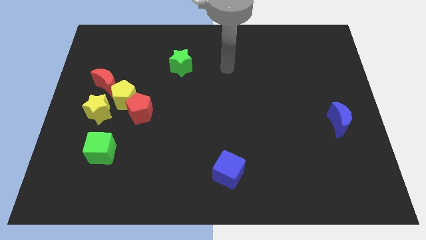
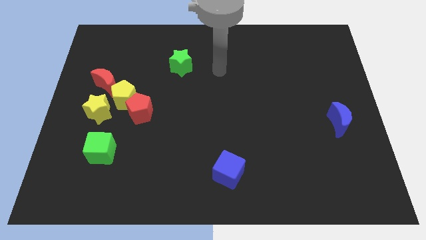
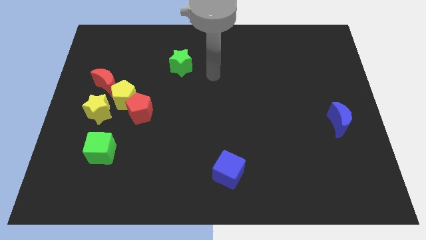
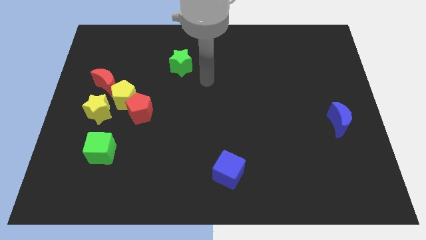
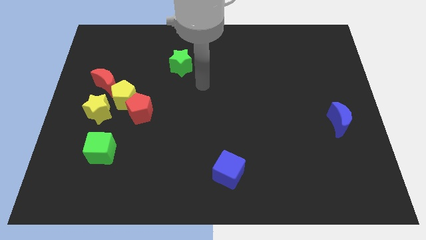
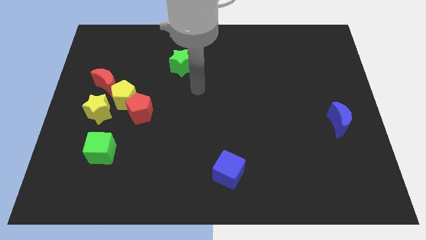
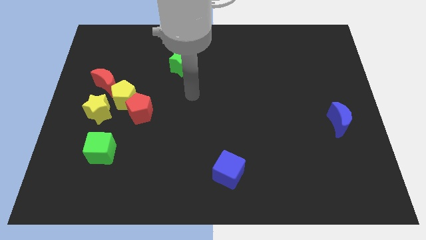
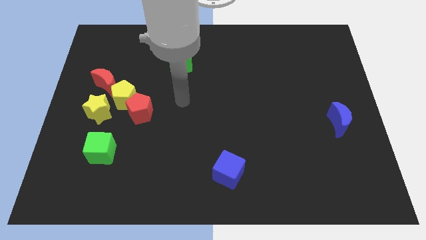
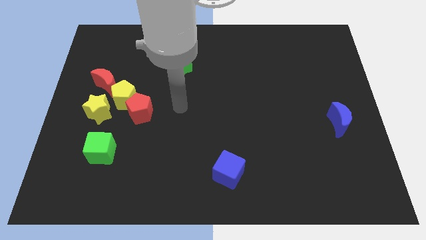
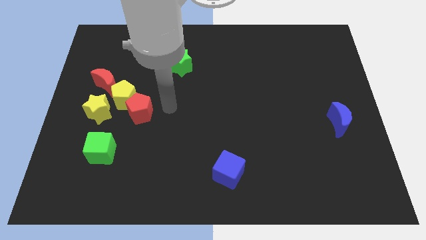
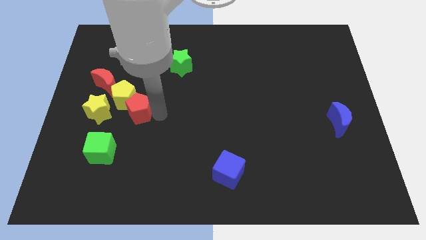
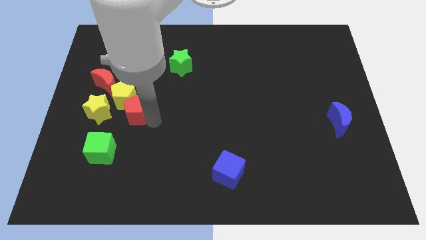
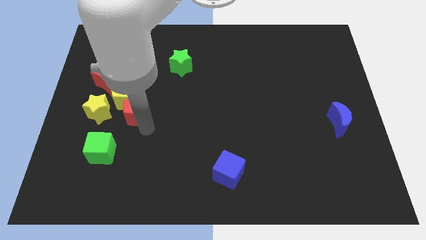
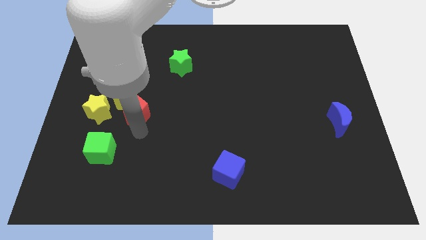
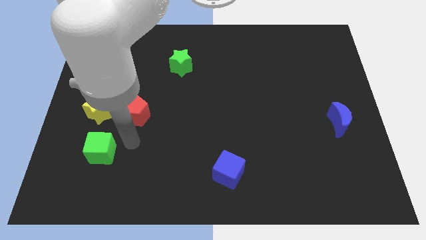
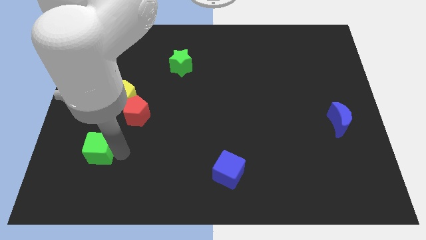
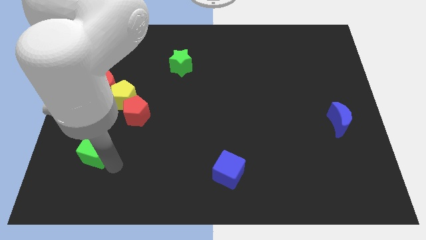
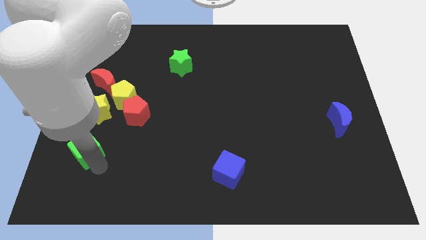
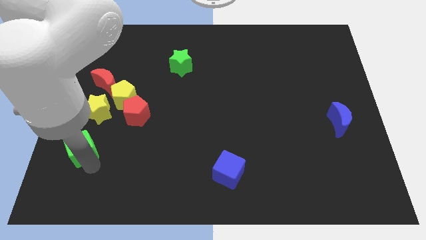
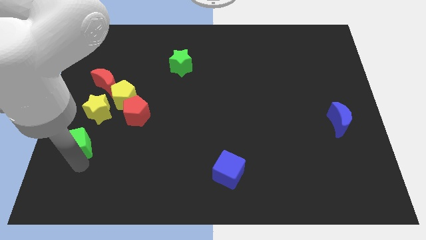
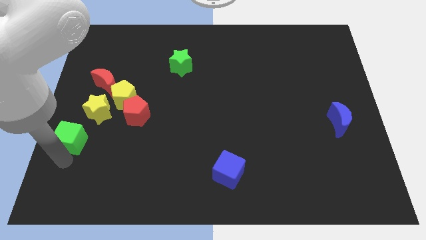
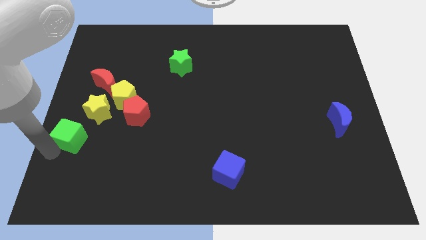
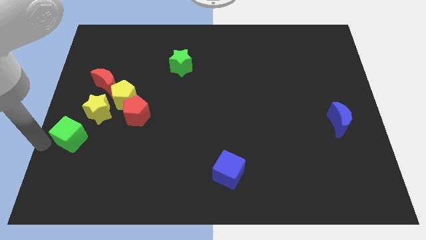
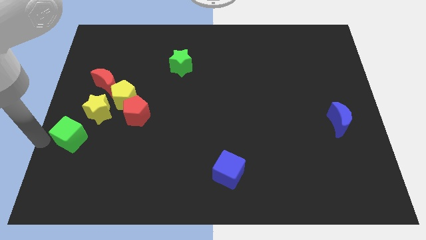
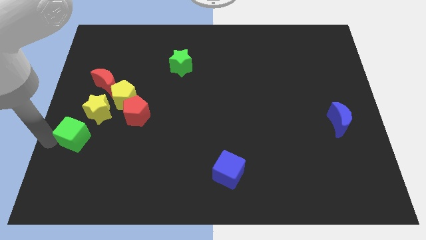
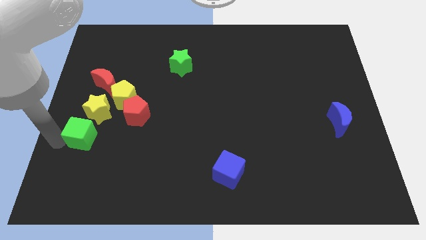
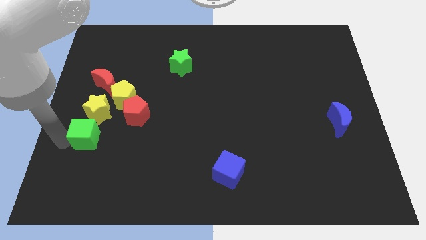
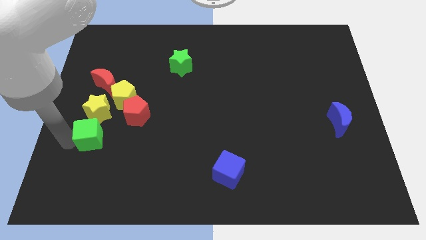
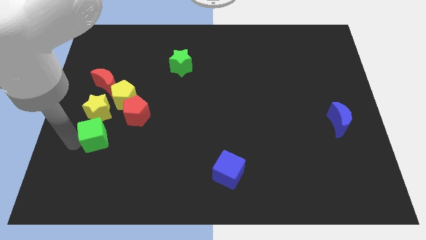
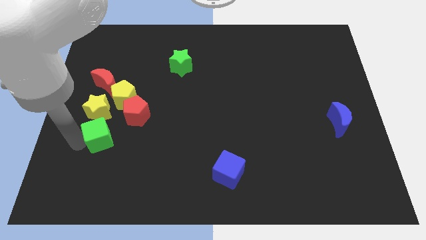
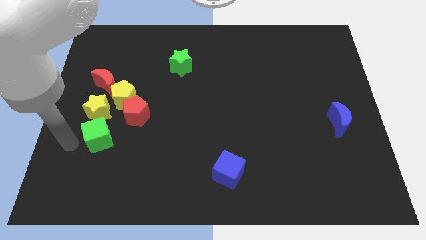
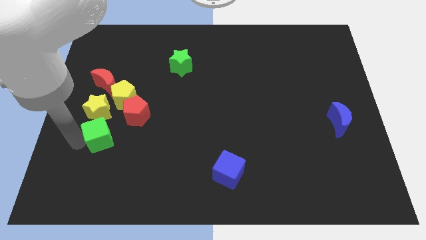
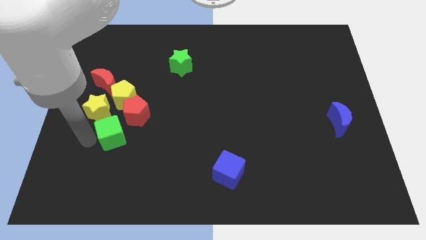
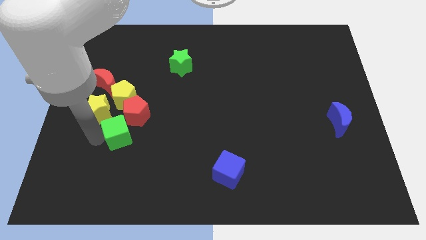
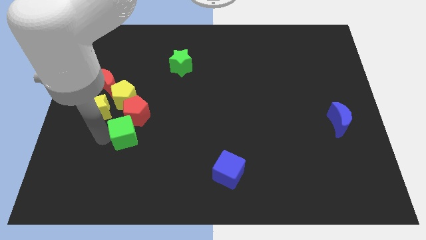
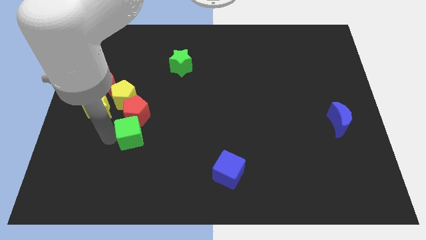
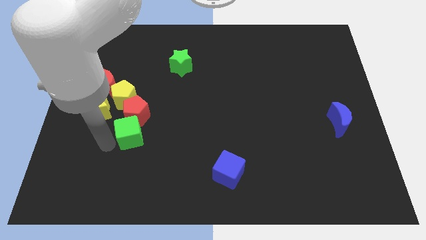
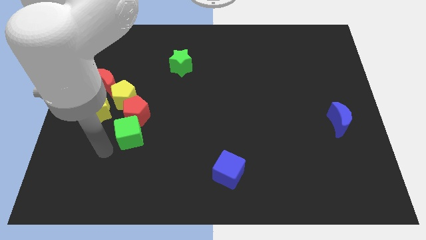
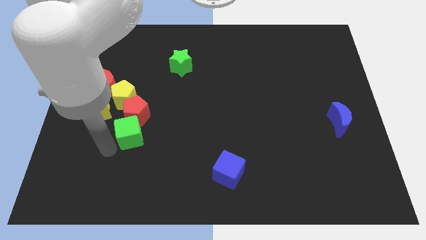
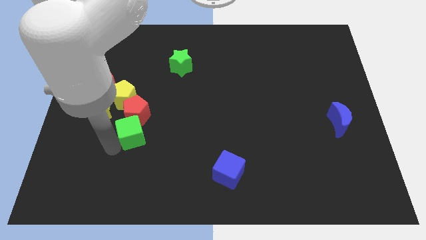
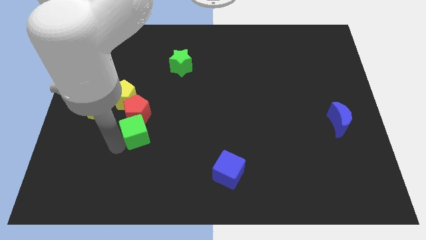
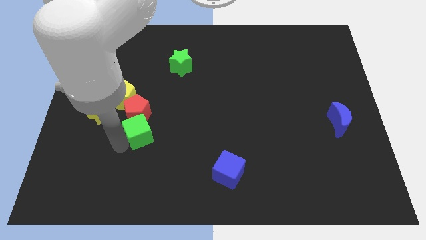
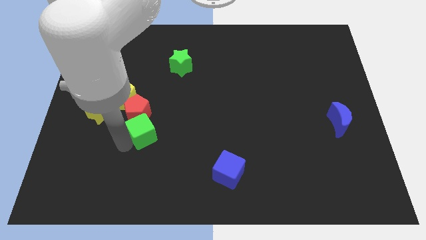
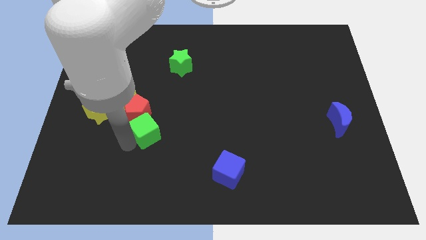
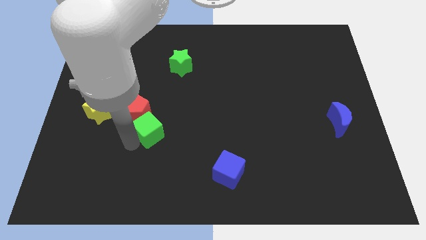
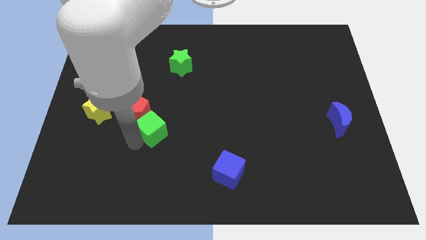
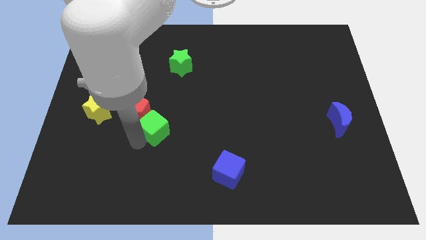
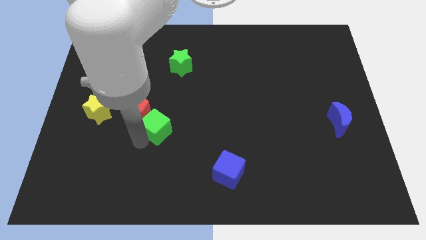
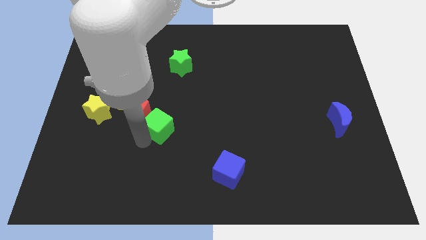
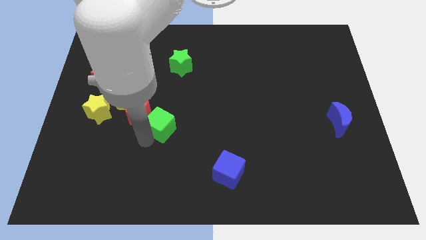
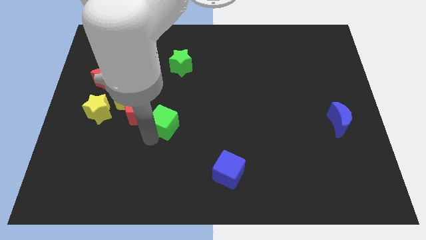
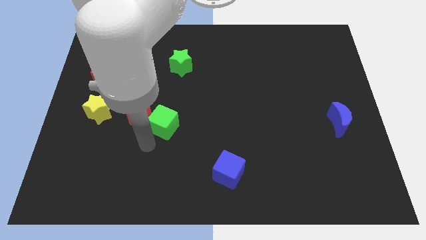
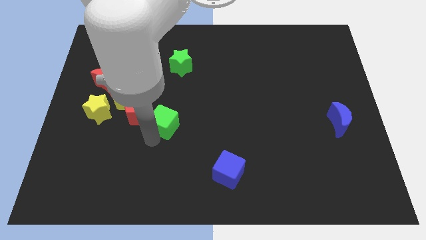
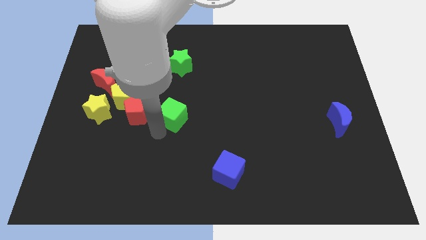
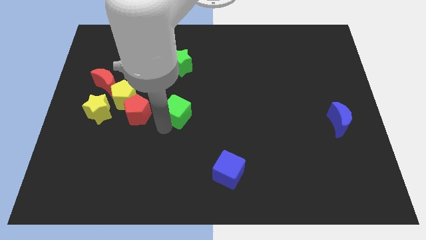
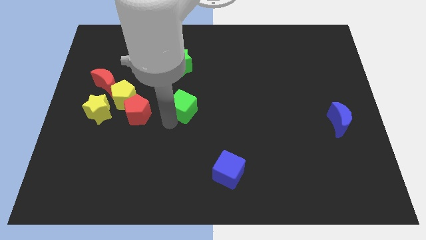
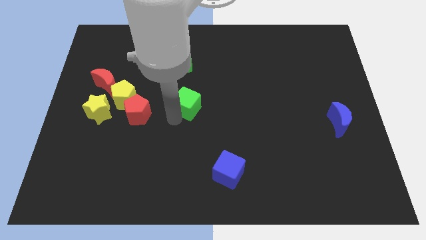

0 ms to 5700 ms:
move the green cube upwards and to the right

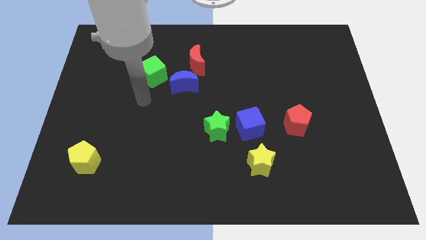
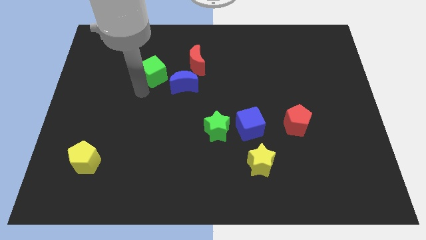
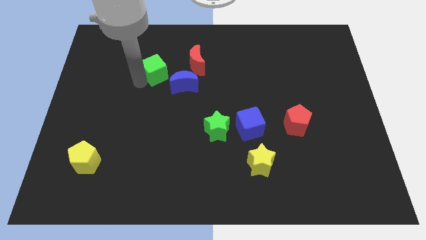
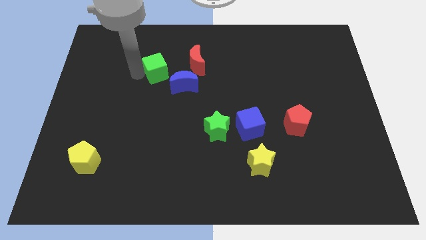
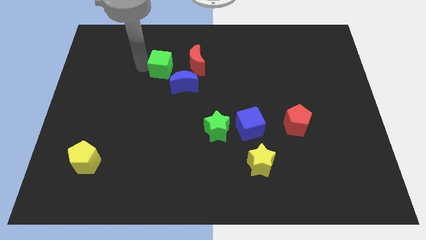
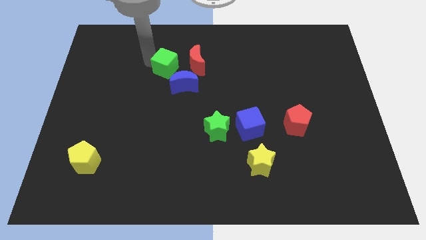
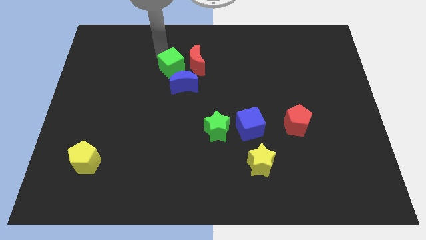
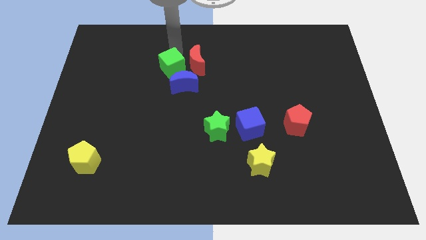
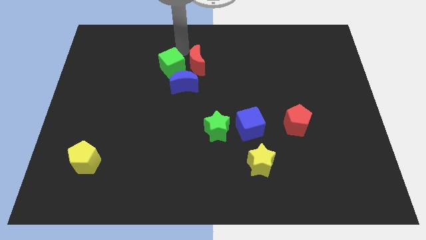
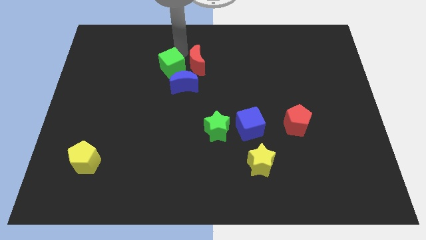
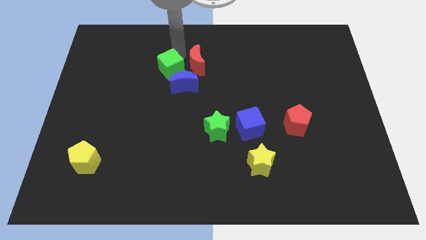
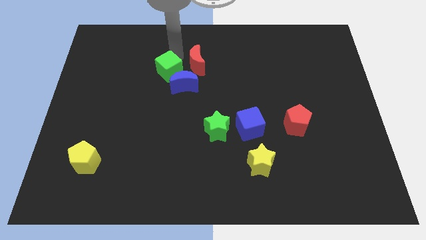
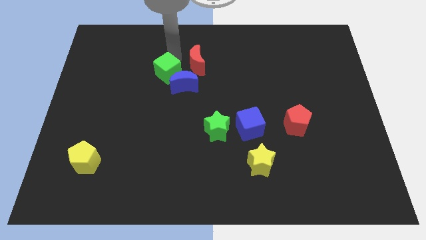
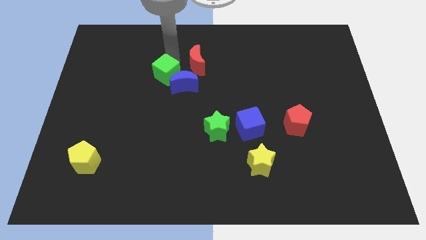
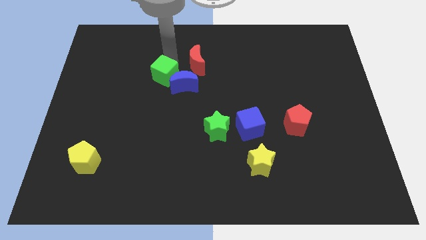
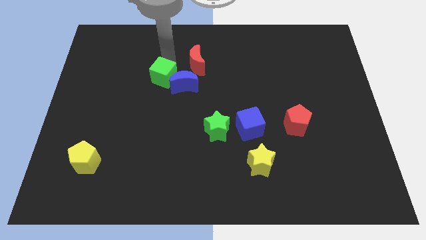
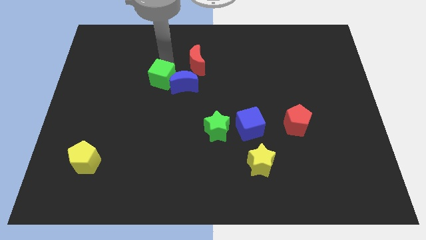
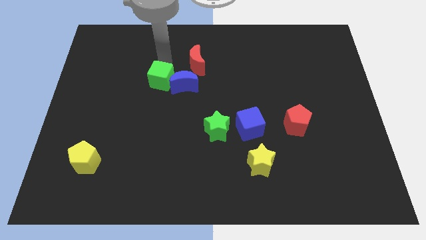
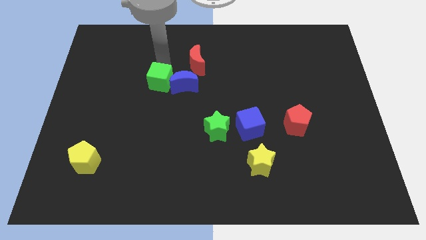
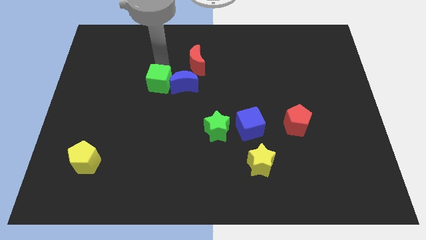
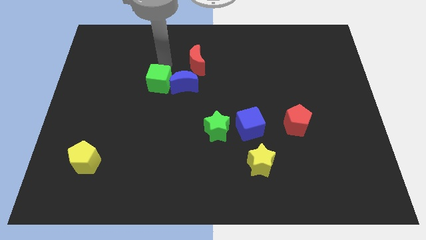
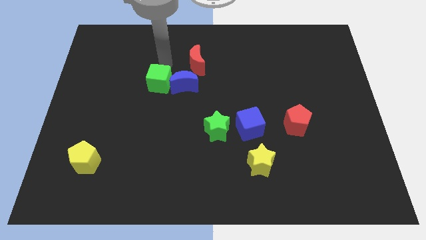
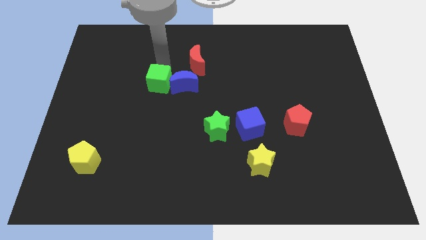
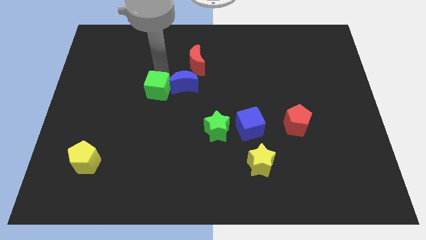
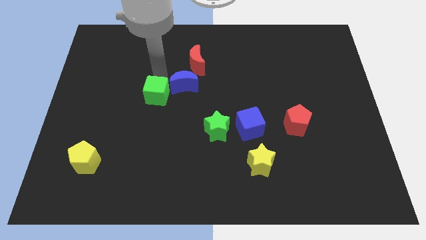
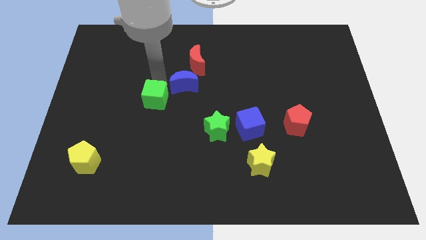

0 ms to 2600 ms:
move the green cube slightly down

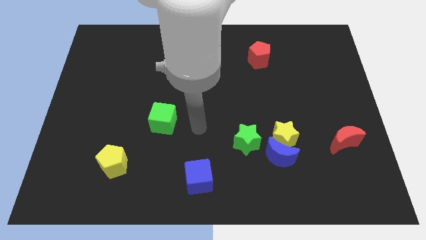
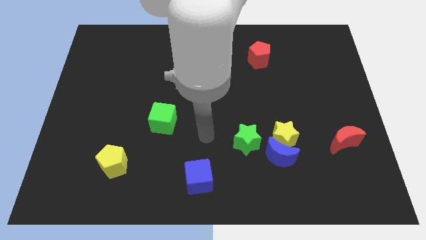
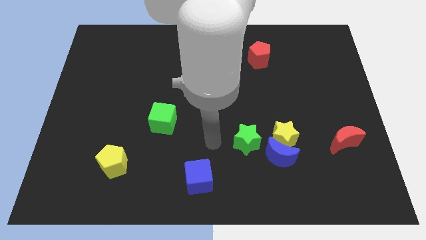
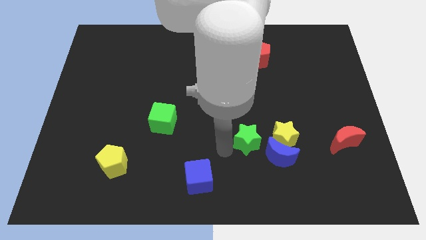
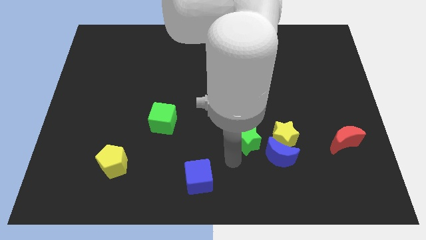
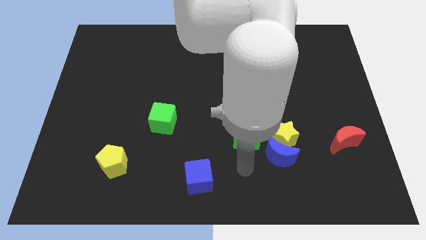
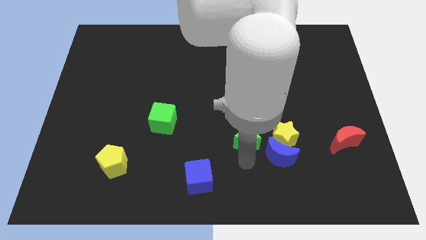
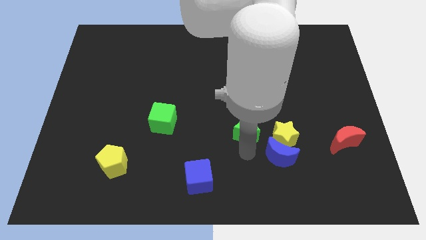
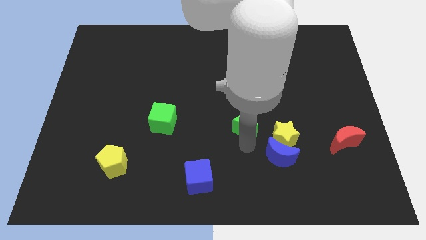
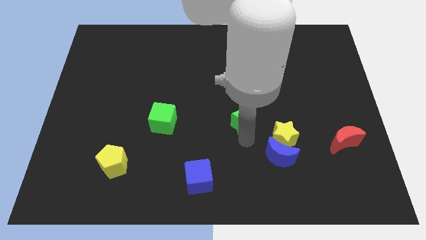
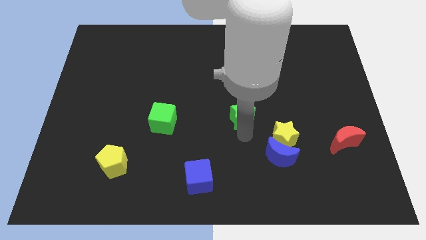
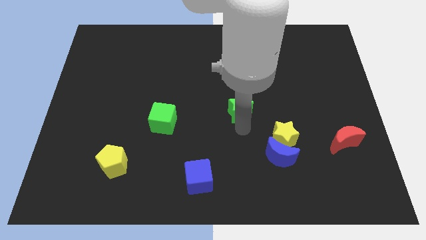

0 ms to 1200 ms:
slide the green star a little up
